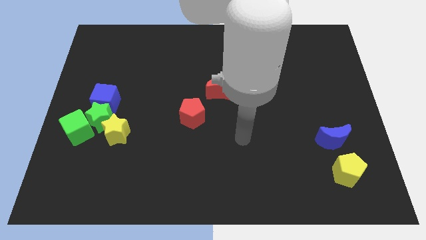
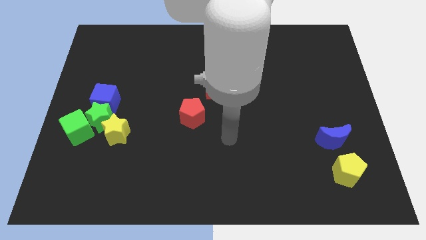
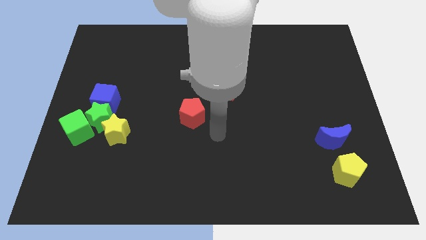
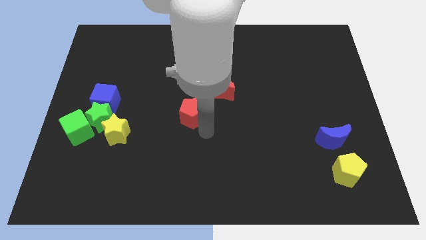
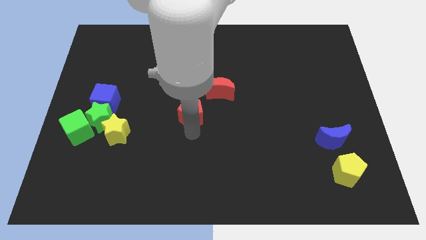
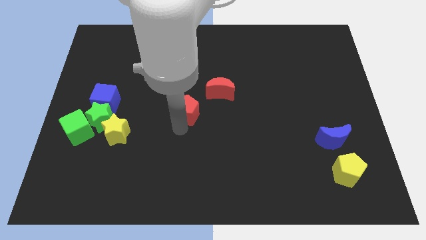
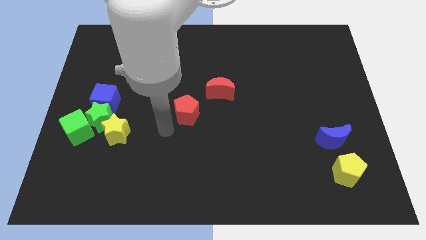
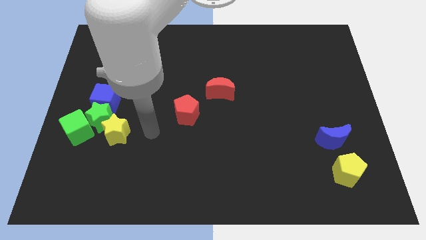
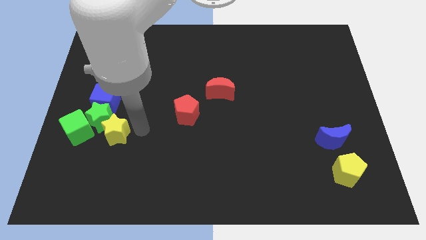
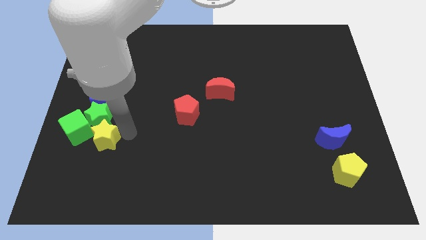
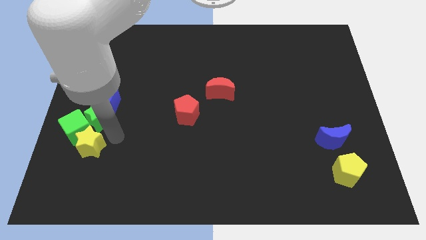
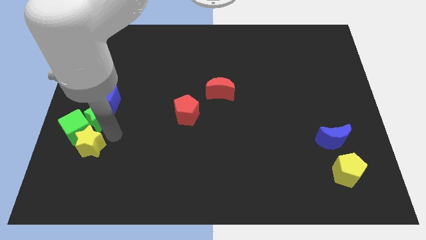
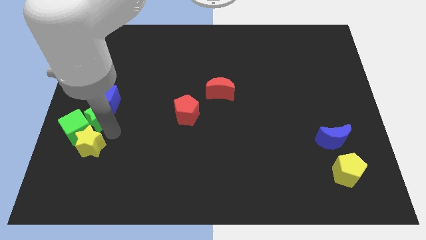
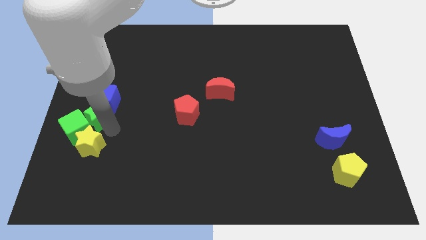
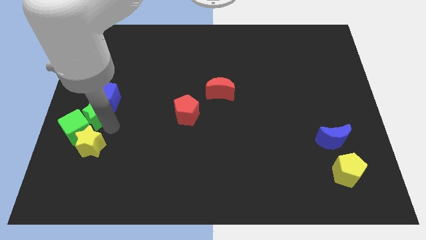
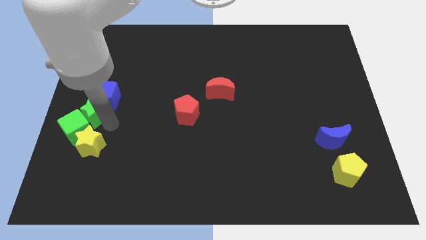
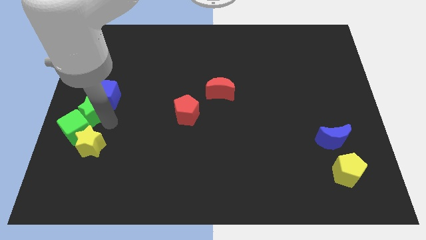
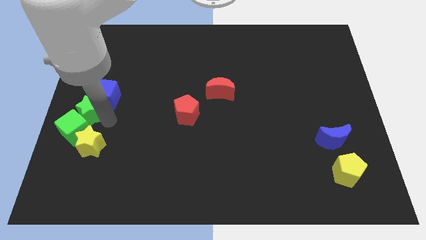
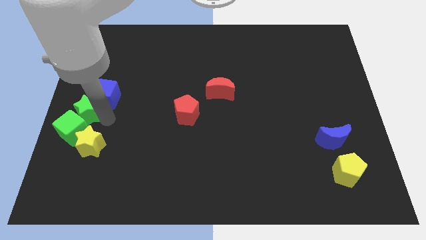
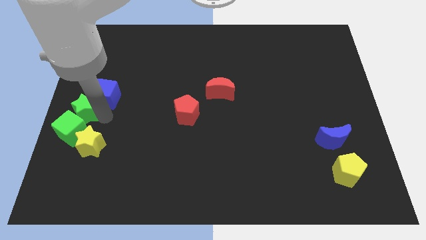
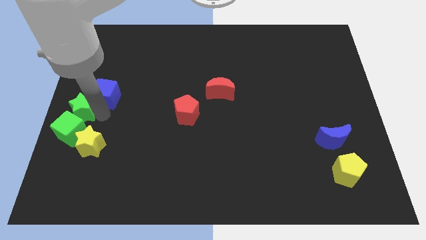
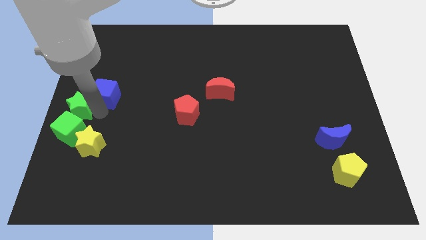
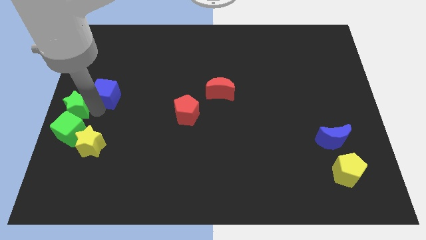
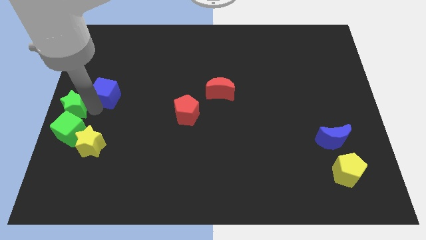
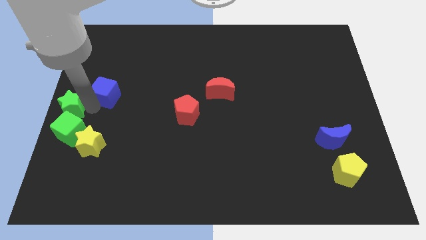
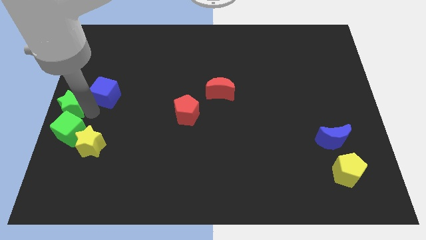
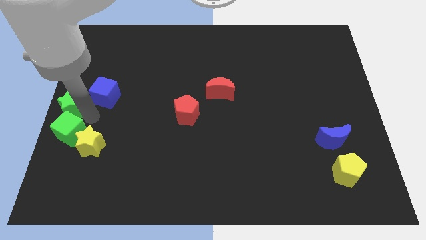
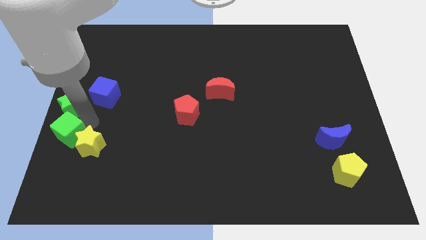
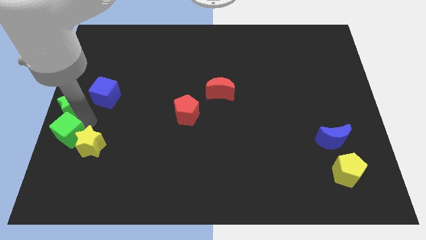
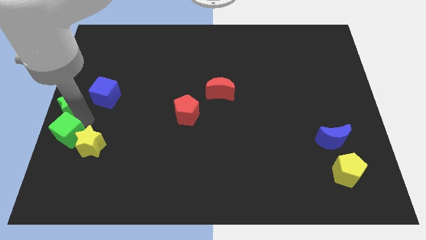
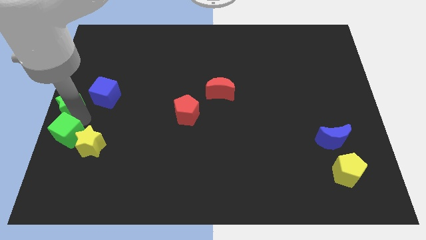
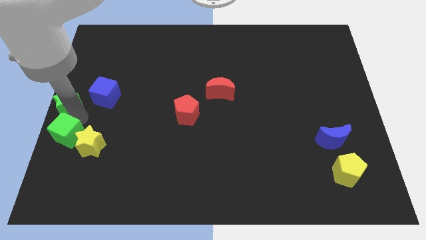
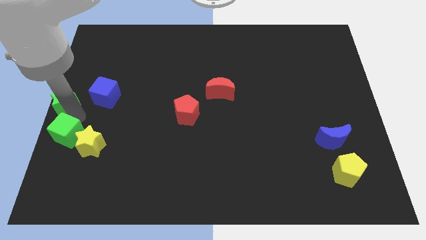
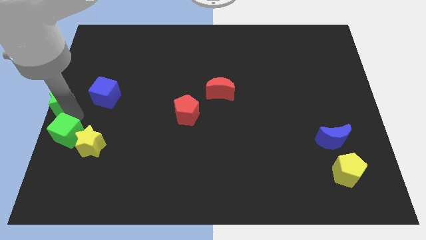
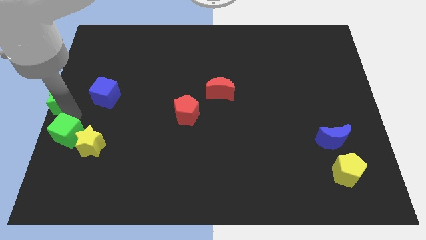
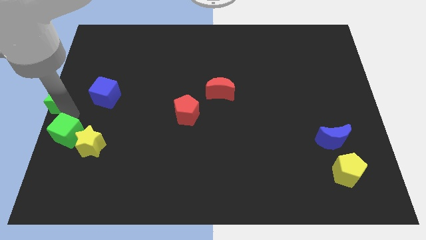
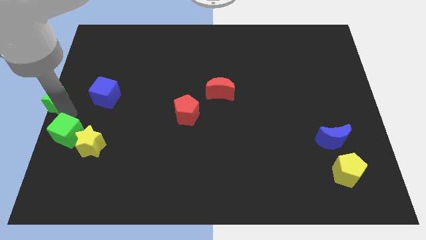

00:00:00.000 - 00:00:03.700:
pull the green star apart from the green cube, blue cube, and yellow star

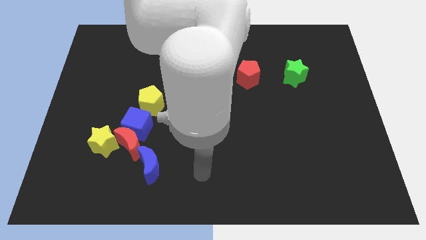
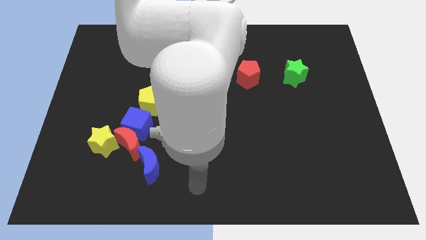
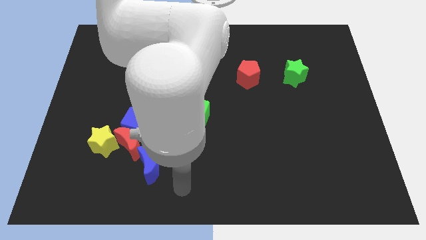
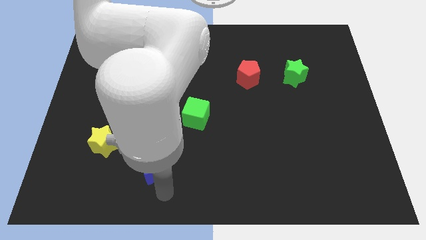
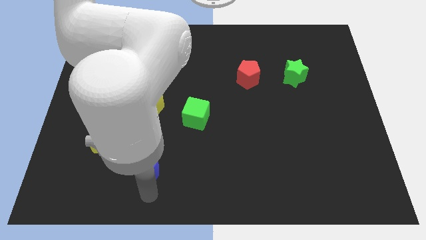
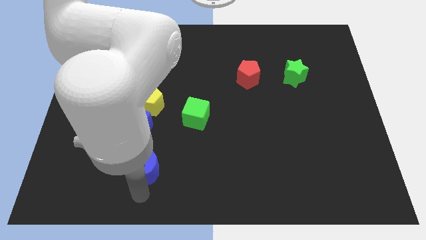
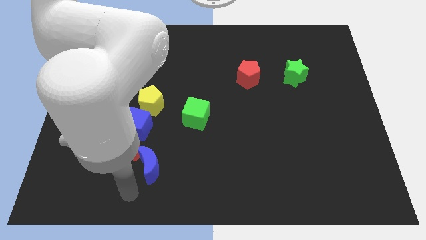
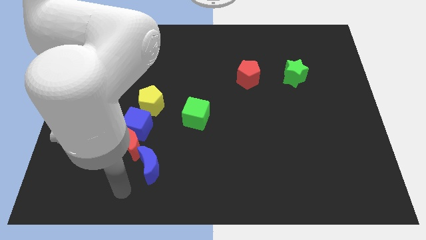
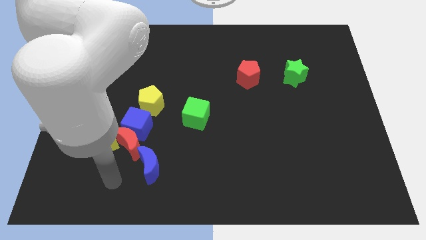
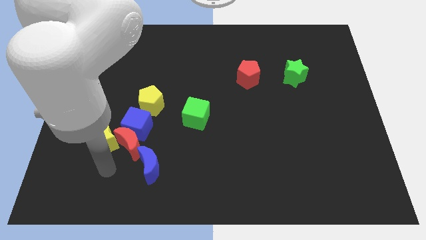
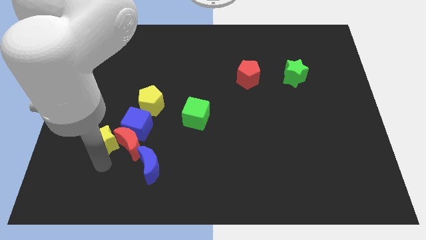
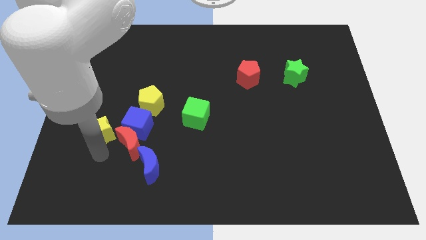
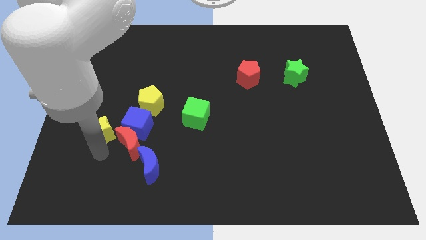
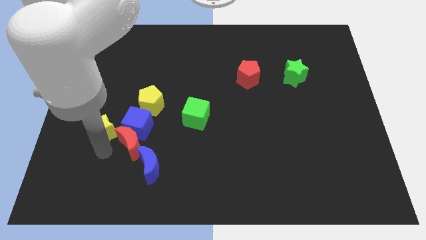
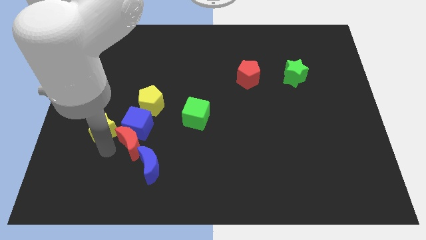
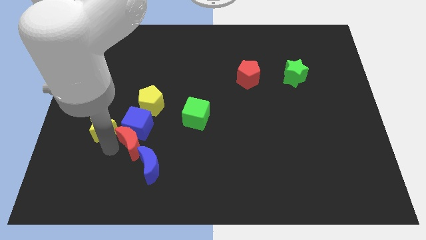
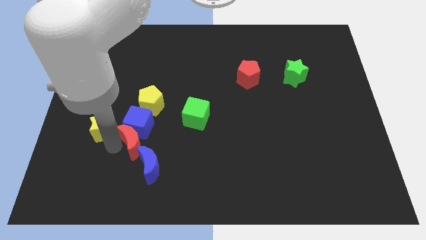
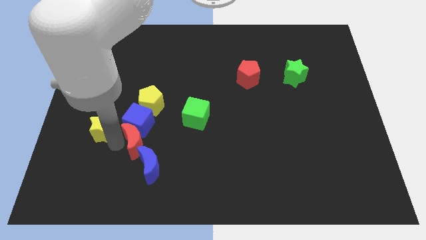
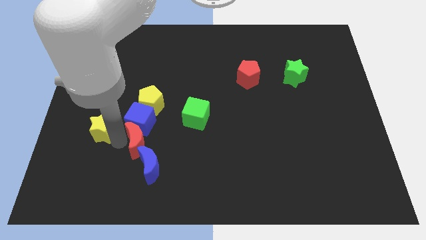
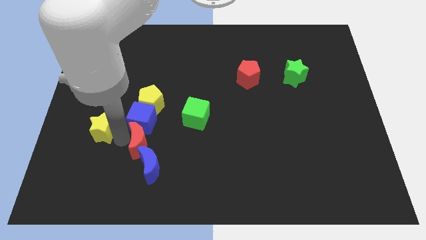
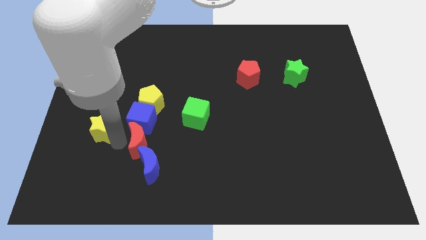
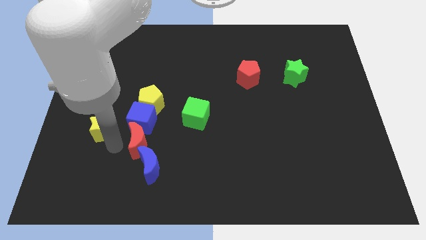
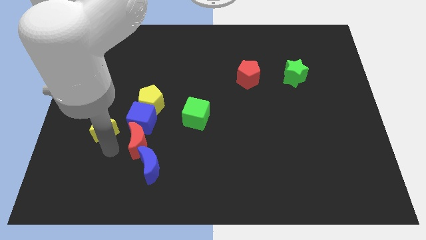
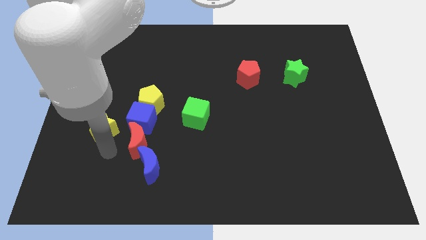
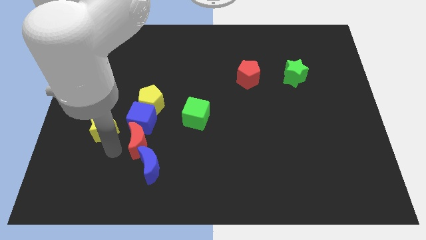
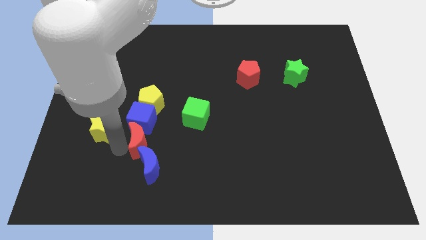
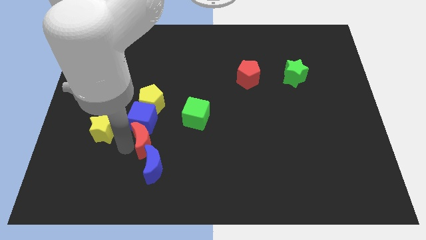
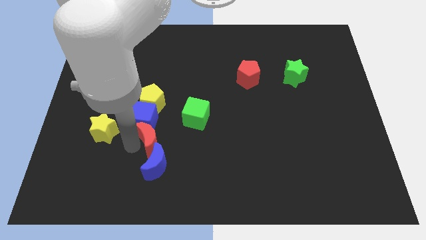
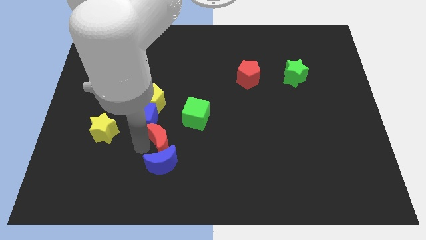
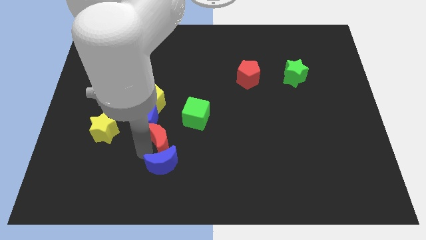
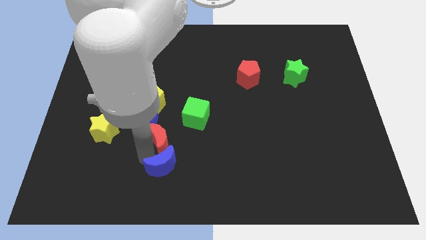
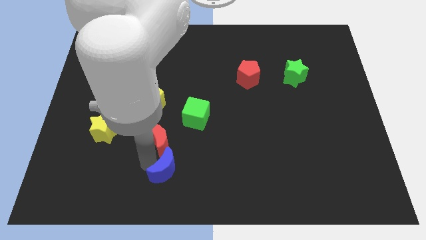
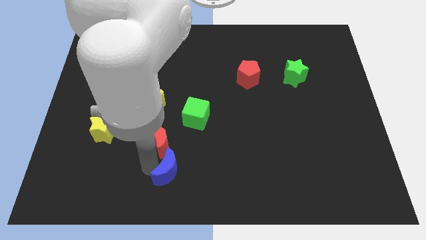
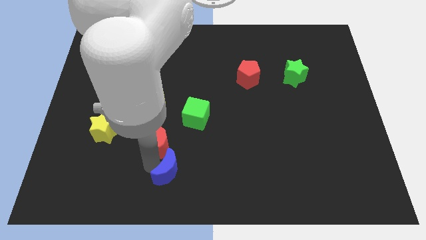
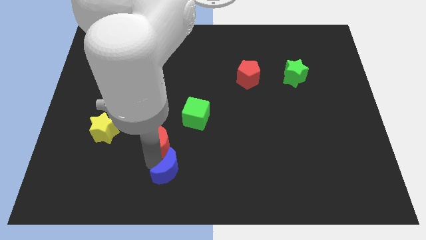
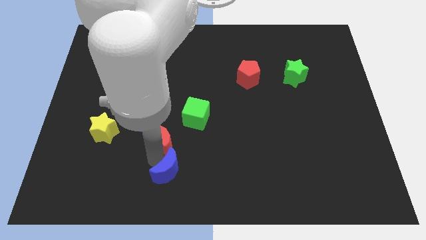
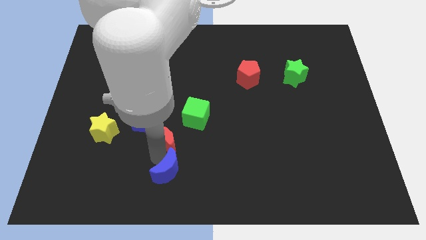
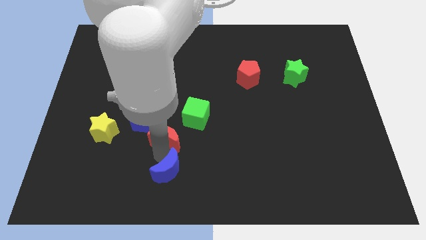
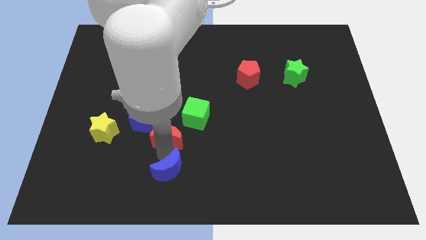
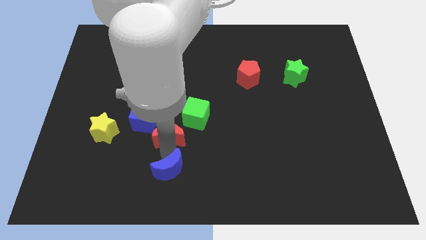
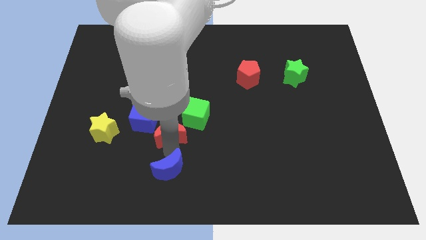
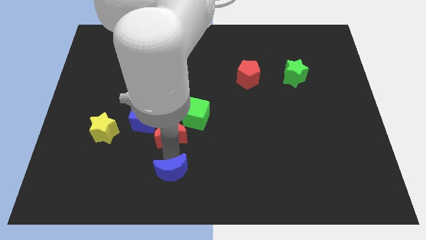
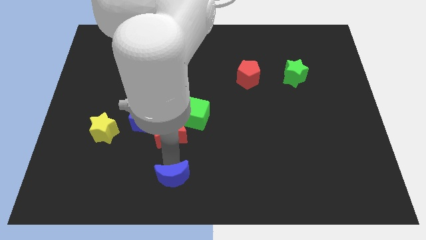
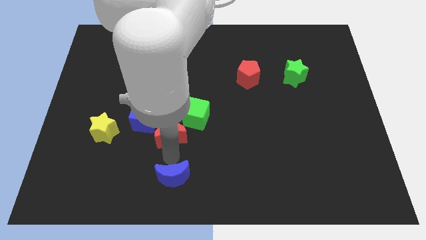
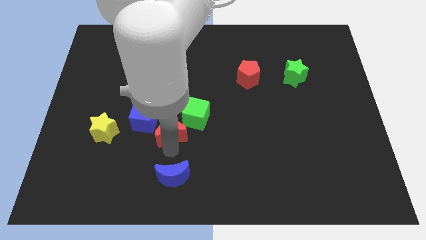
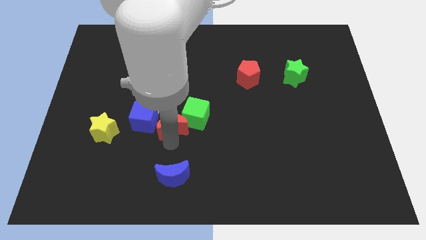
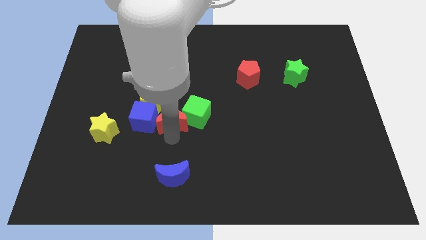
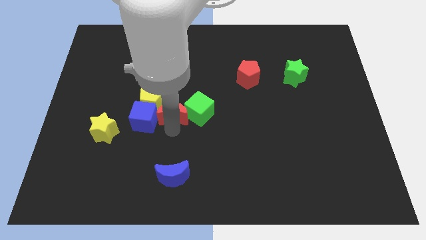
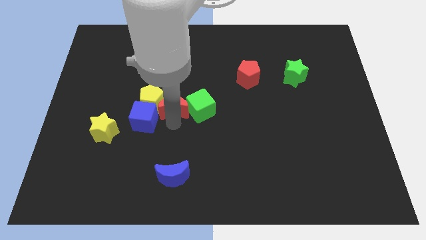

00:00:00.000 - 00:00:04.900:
move the red moon away from the blue cube, yellow star, and blue moon

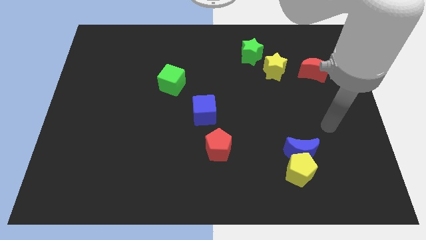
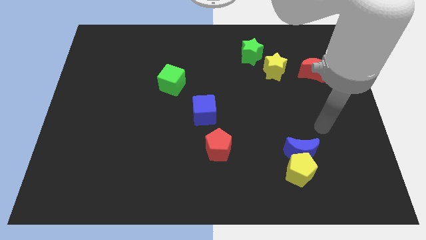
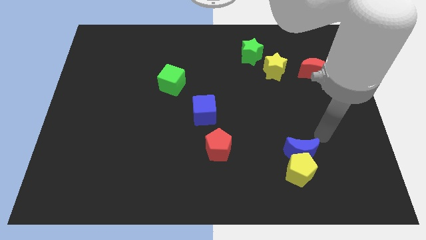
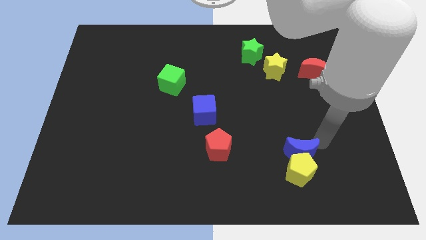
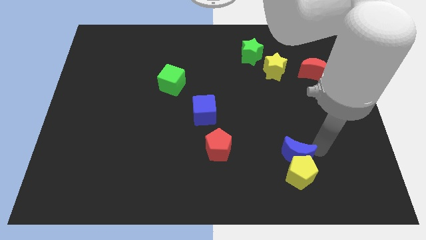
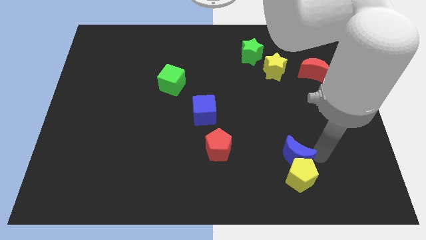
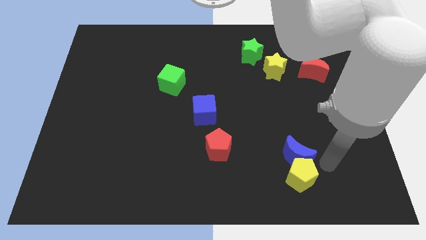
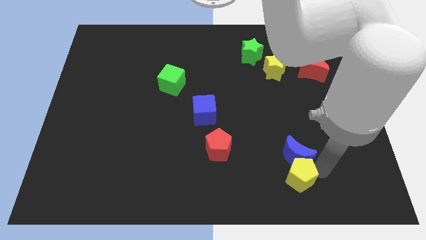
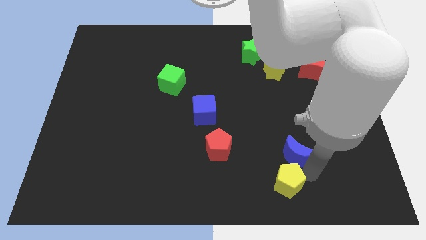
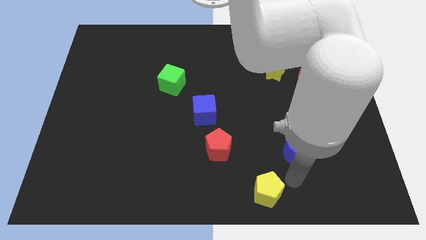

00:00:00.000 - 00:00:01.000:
pull the blue moon apart from the yellow pentagon
